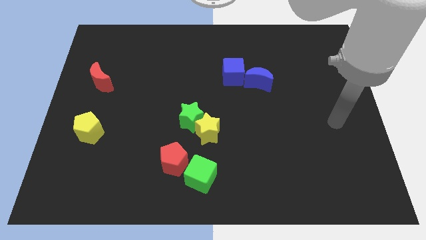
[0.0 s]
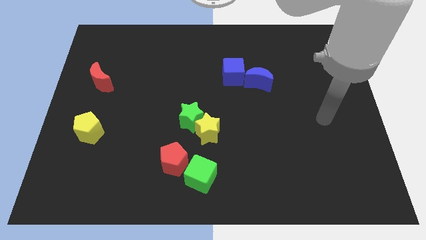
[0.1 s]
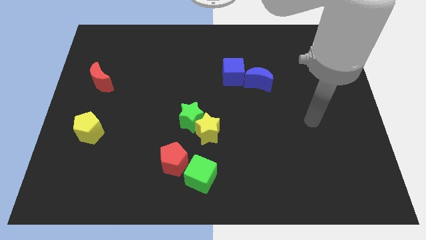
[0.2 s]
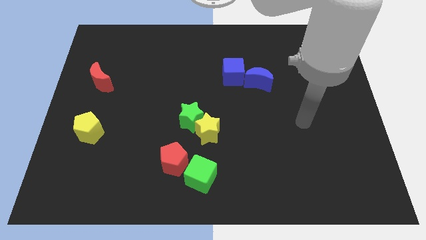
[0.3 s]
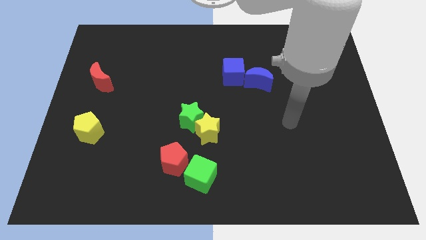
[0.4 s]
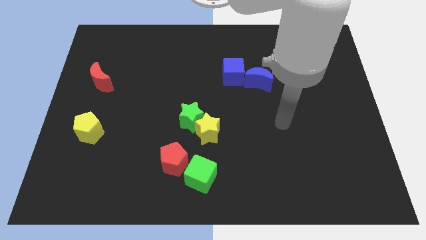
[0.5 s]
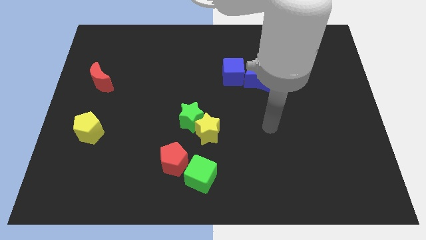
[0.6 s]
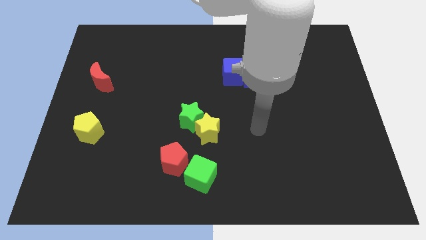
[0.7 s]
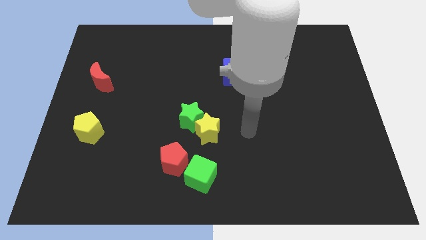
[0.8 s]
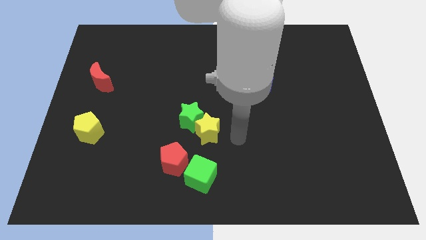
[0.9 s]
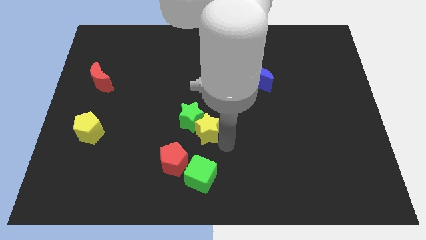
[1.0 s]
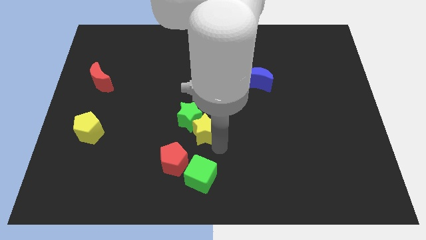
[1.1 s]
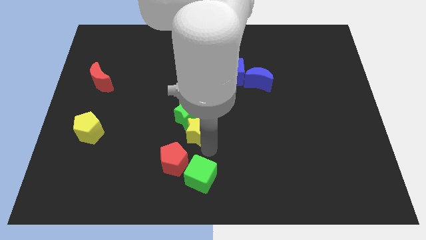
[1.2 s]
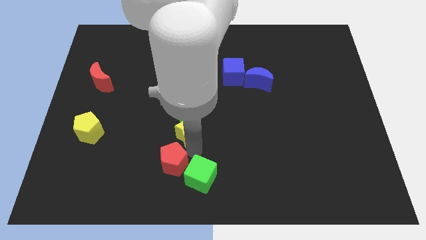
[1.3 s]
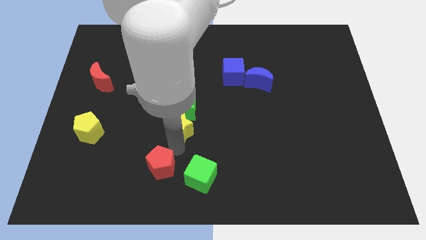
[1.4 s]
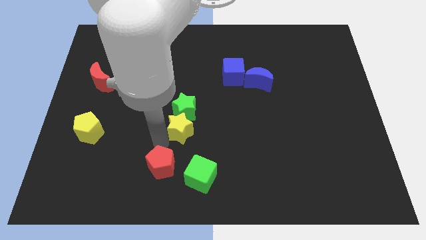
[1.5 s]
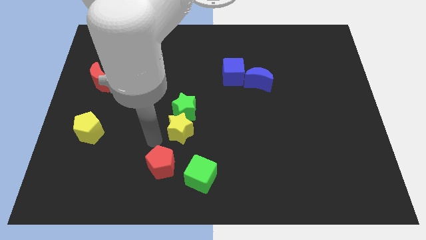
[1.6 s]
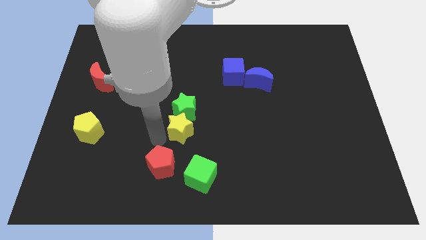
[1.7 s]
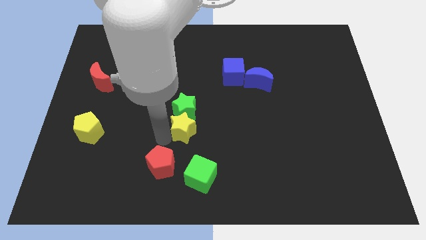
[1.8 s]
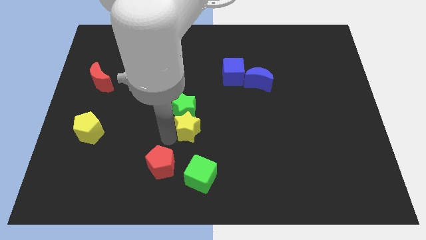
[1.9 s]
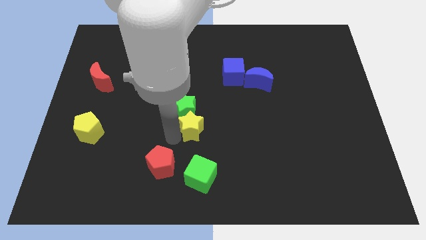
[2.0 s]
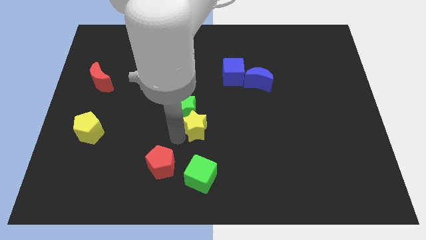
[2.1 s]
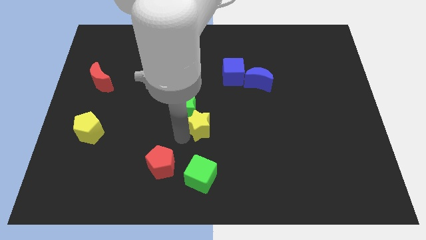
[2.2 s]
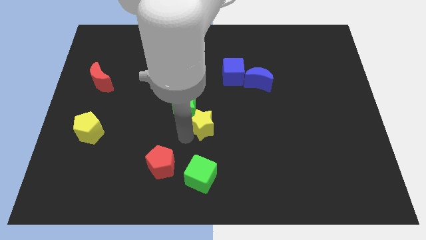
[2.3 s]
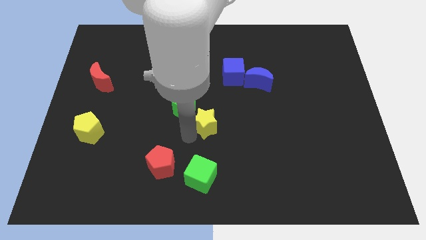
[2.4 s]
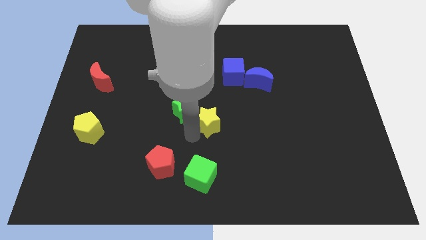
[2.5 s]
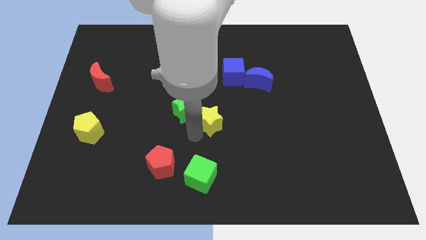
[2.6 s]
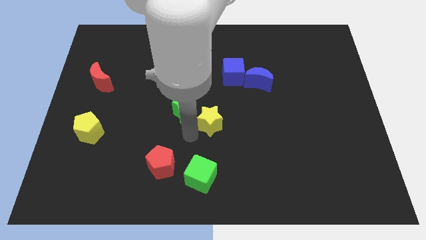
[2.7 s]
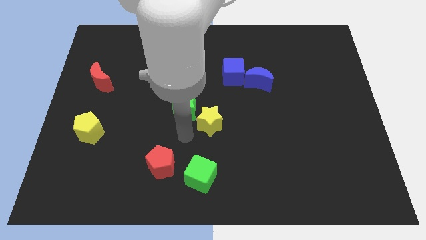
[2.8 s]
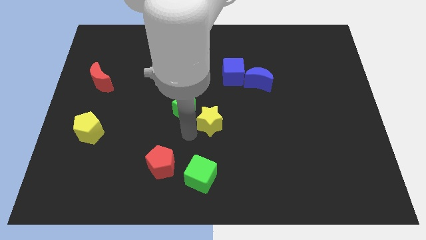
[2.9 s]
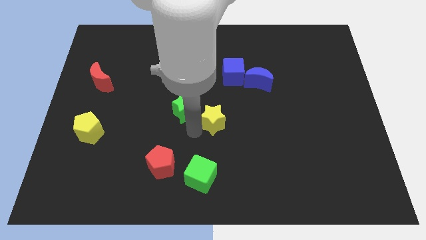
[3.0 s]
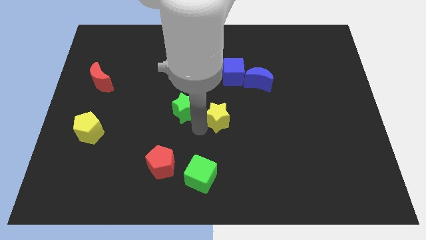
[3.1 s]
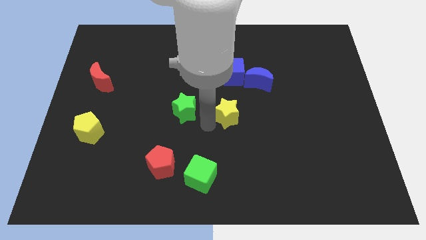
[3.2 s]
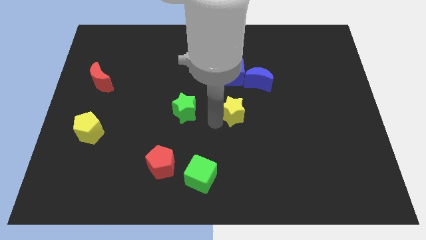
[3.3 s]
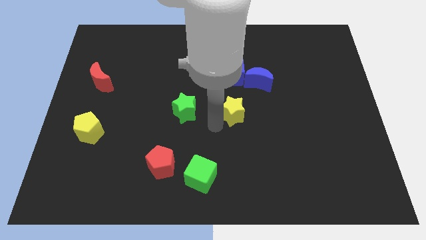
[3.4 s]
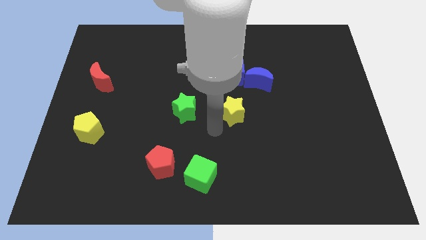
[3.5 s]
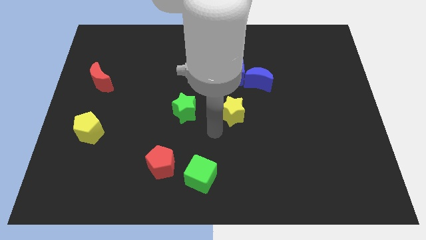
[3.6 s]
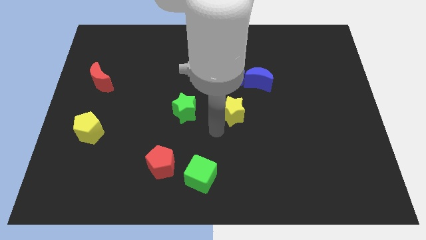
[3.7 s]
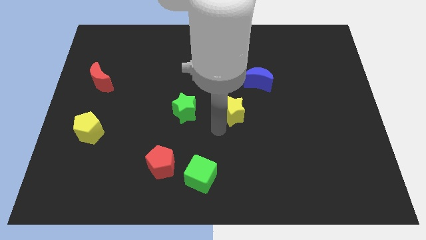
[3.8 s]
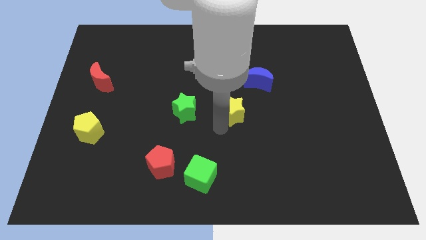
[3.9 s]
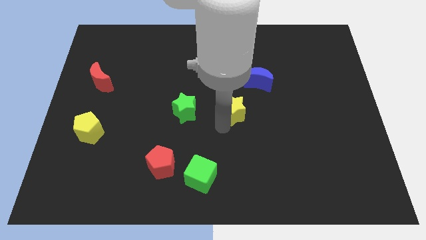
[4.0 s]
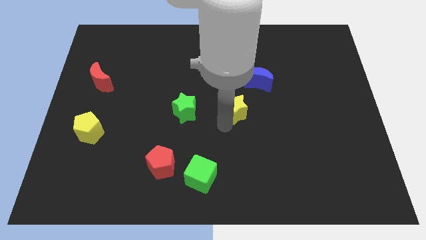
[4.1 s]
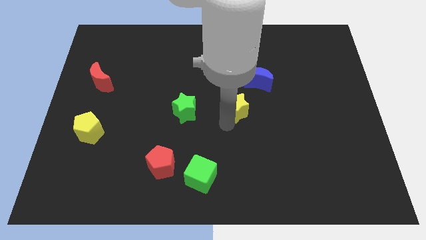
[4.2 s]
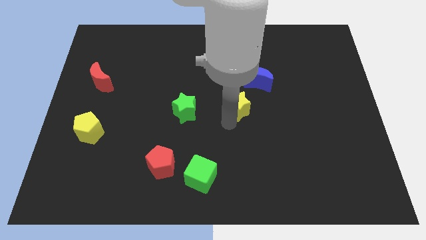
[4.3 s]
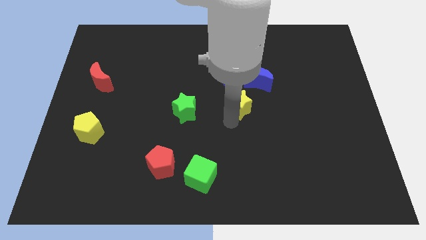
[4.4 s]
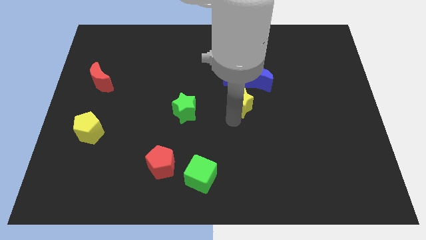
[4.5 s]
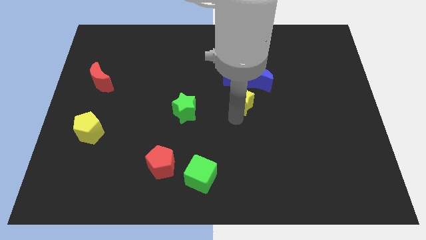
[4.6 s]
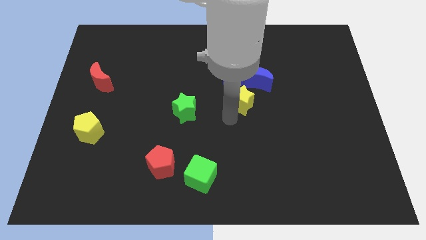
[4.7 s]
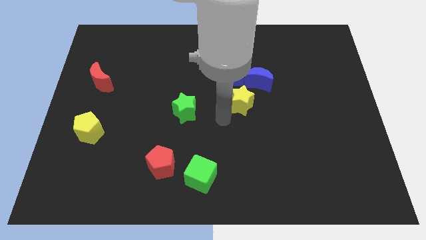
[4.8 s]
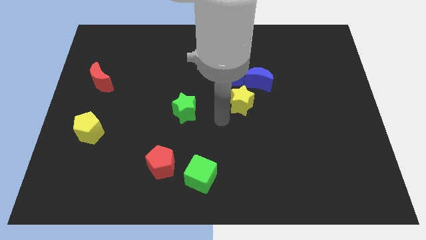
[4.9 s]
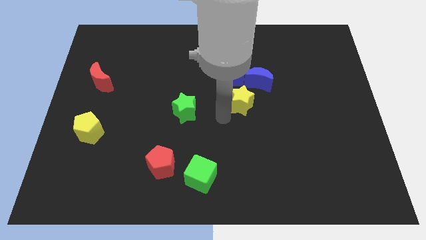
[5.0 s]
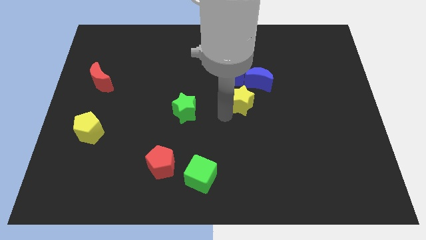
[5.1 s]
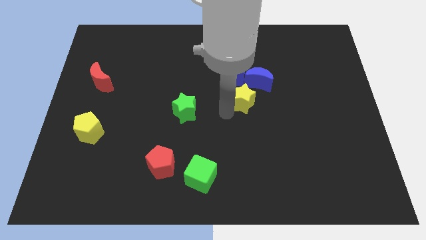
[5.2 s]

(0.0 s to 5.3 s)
push the yellow star diagonally down and to the right of the blue cube

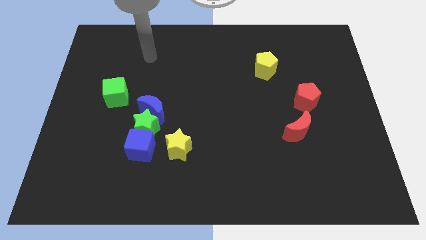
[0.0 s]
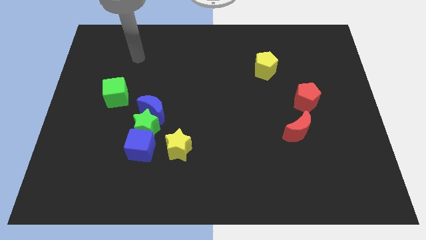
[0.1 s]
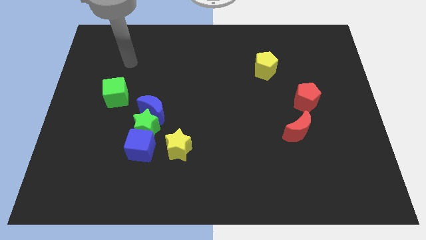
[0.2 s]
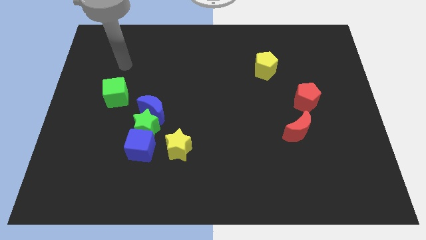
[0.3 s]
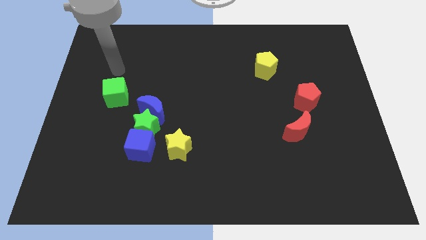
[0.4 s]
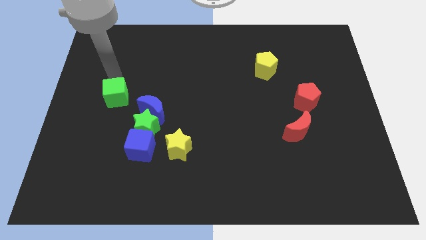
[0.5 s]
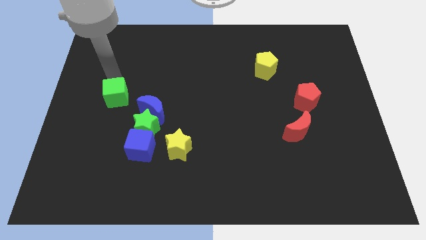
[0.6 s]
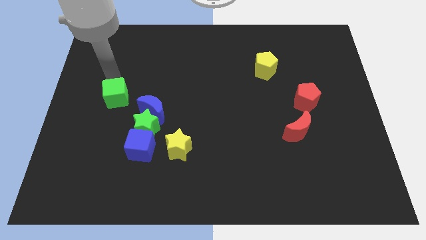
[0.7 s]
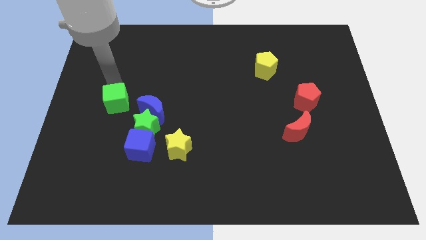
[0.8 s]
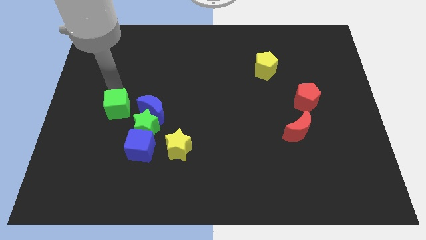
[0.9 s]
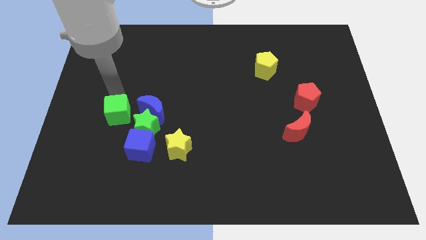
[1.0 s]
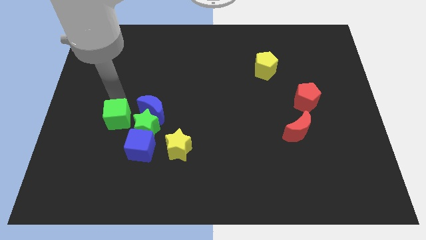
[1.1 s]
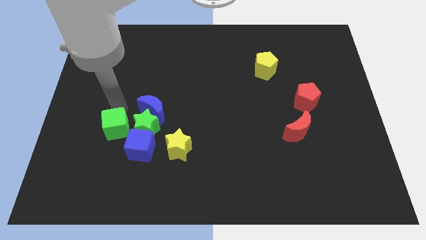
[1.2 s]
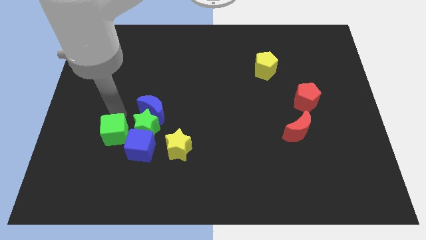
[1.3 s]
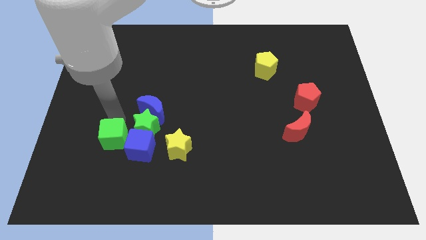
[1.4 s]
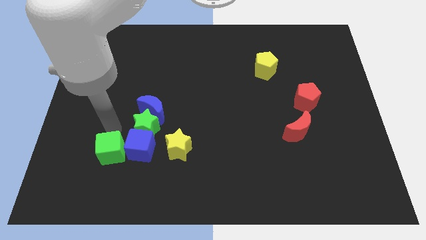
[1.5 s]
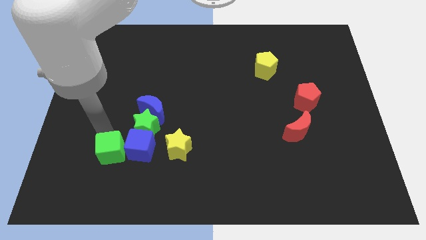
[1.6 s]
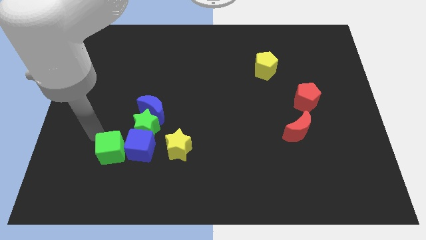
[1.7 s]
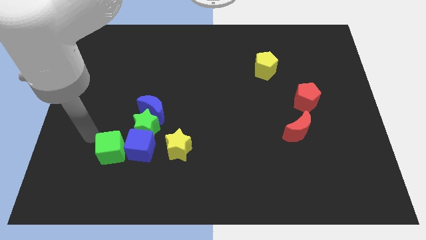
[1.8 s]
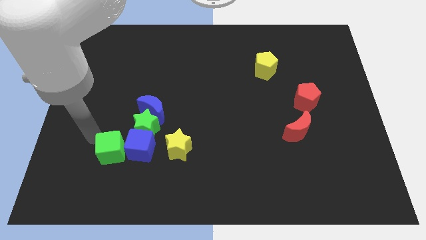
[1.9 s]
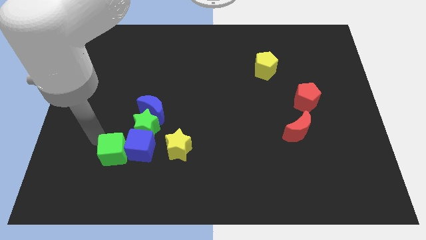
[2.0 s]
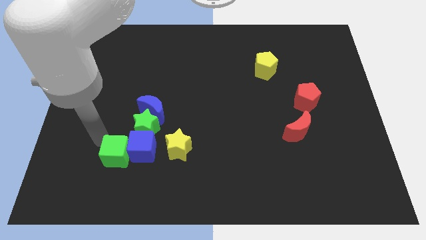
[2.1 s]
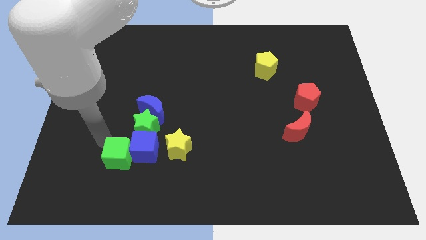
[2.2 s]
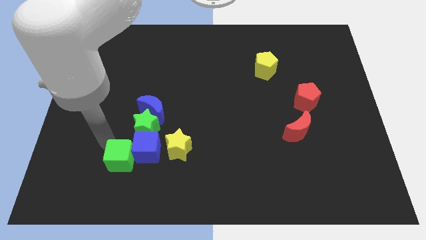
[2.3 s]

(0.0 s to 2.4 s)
put the green cube to the bottom of the green star
